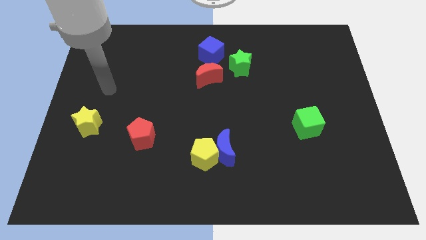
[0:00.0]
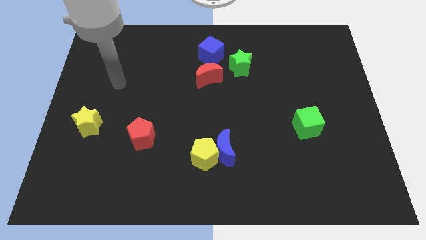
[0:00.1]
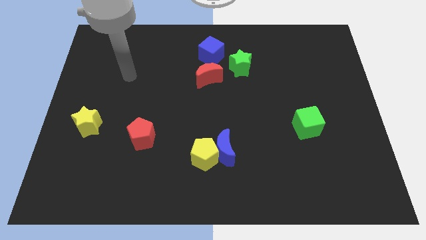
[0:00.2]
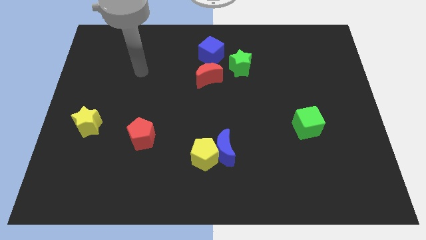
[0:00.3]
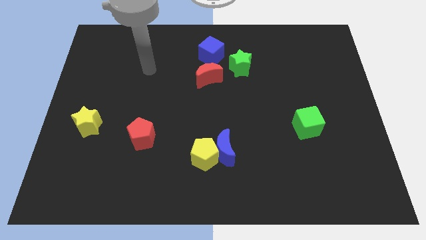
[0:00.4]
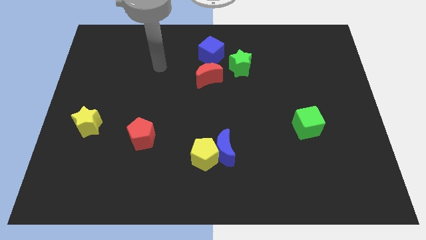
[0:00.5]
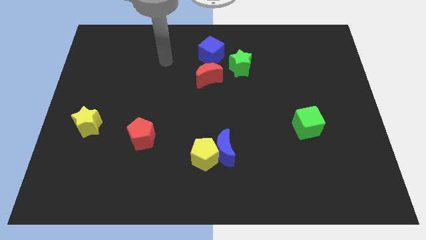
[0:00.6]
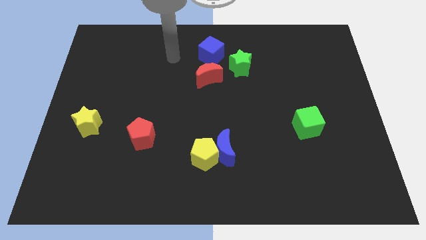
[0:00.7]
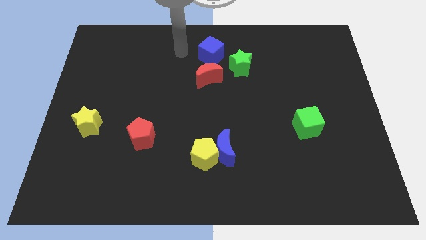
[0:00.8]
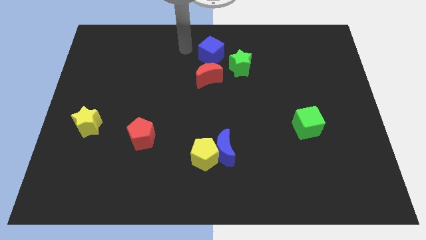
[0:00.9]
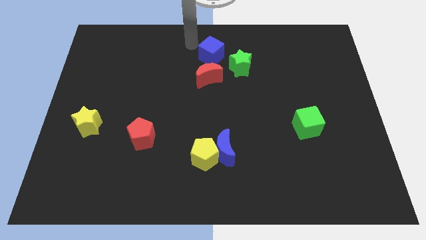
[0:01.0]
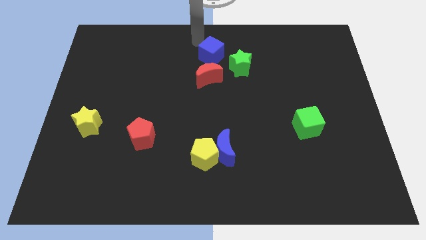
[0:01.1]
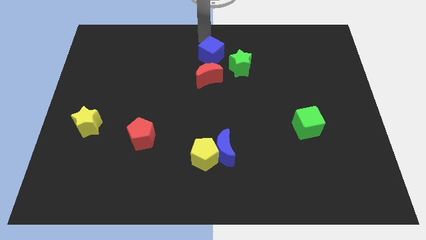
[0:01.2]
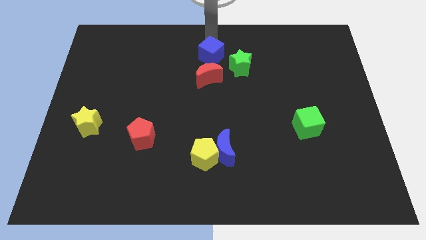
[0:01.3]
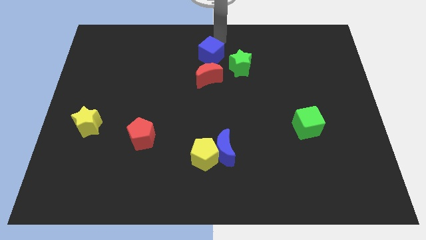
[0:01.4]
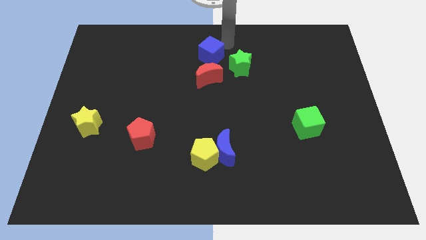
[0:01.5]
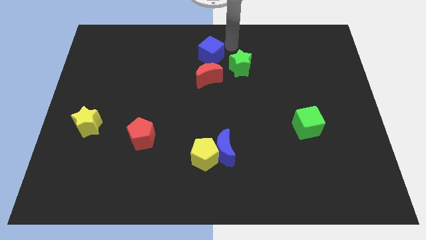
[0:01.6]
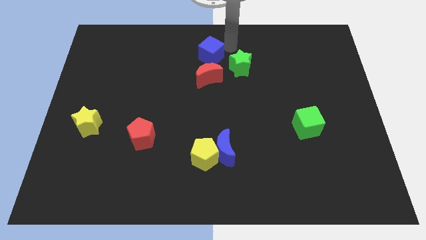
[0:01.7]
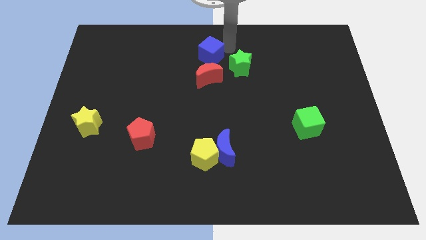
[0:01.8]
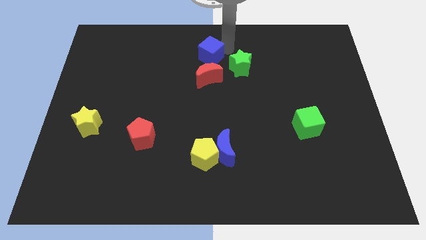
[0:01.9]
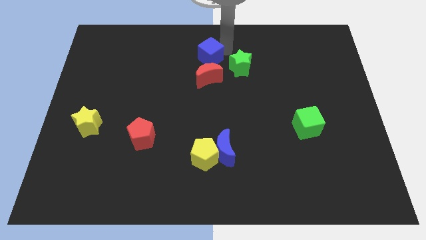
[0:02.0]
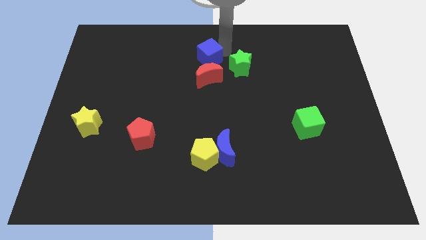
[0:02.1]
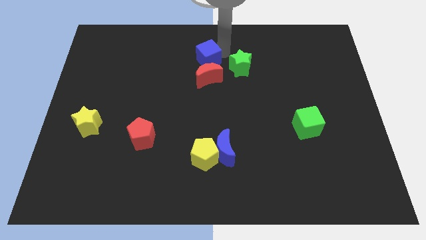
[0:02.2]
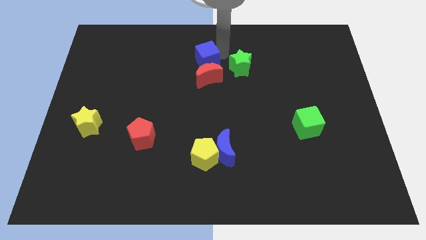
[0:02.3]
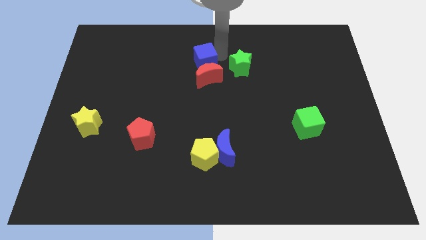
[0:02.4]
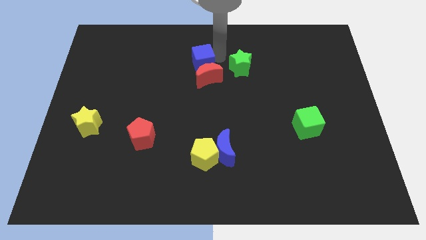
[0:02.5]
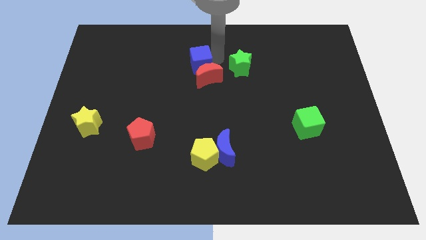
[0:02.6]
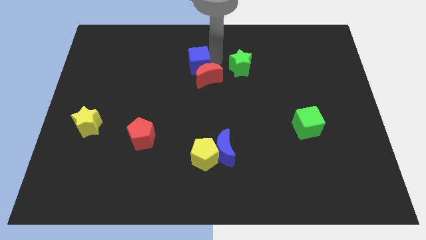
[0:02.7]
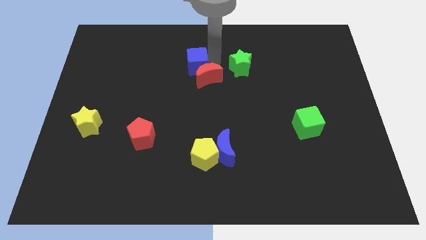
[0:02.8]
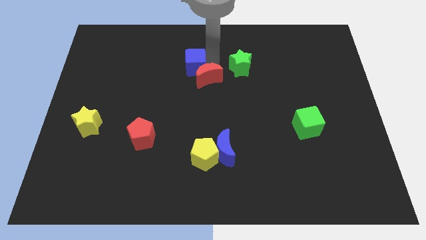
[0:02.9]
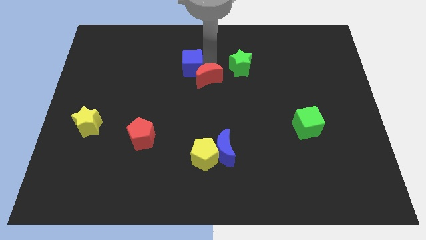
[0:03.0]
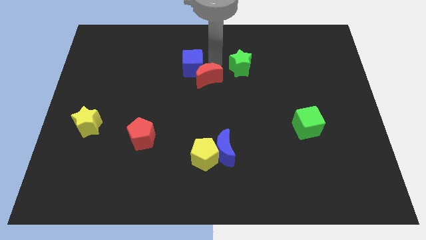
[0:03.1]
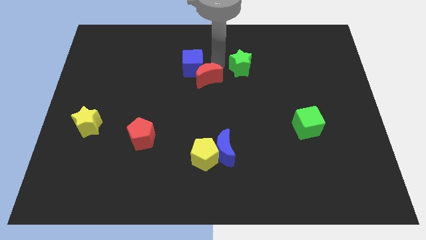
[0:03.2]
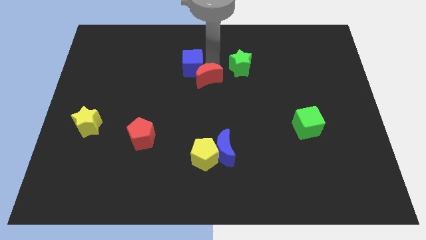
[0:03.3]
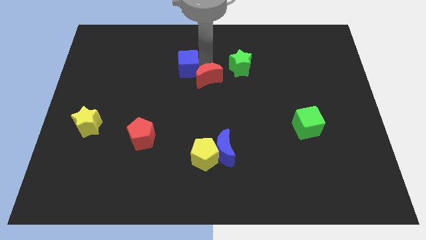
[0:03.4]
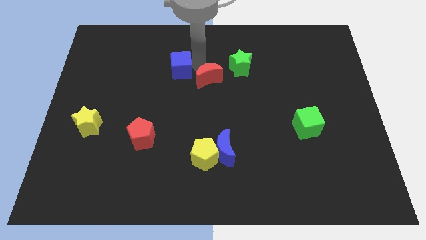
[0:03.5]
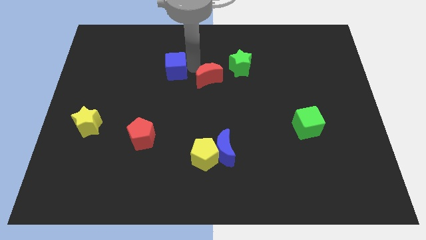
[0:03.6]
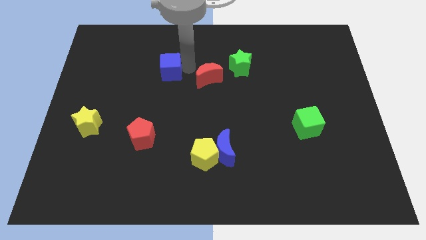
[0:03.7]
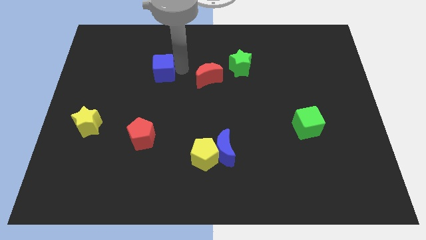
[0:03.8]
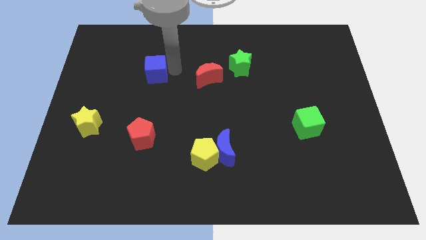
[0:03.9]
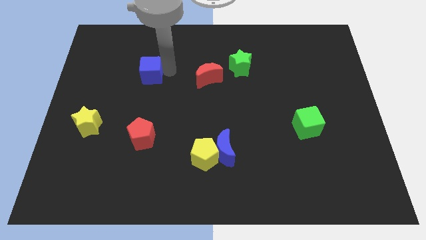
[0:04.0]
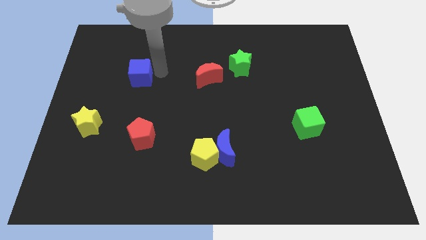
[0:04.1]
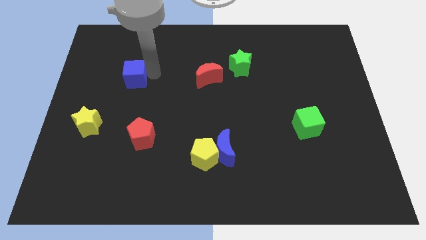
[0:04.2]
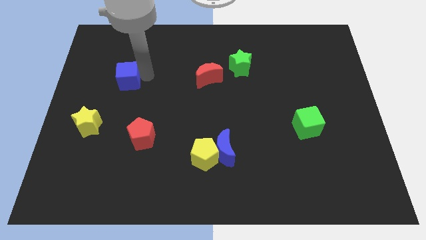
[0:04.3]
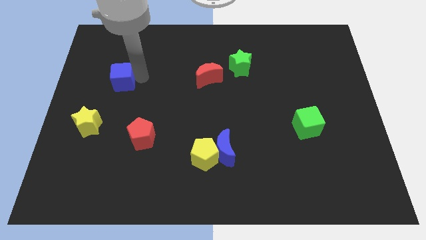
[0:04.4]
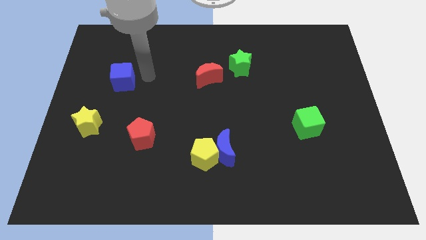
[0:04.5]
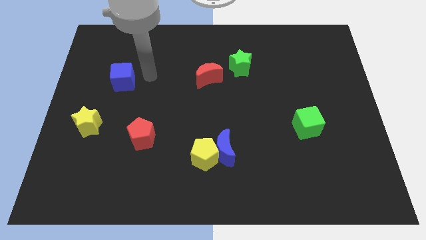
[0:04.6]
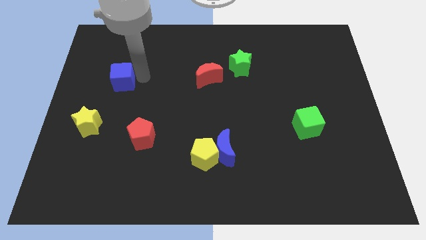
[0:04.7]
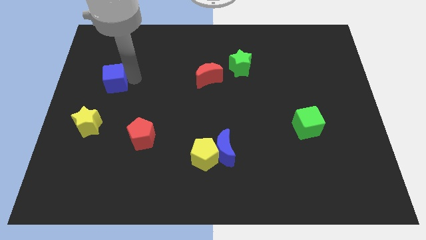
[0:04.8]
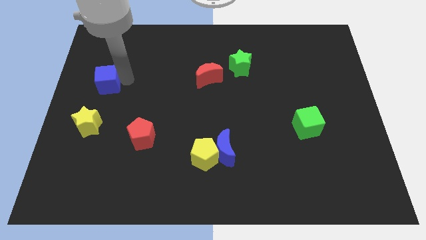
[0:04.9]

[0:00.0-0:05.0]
put the blue cube to the left side of the board

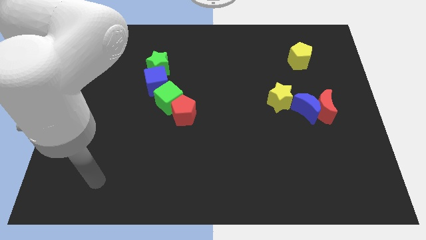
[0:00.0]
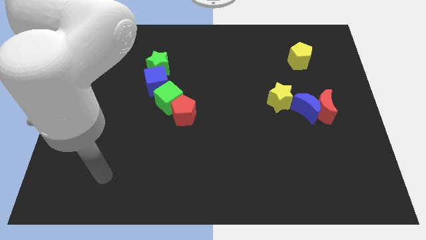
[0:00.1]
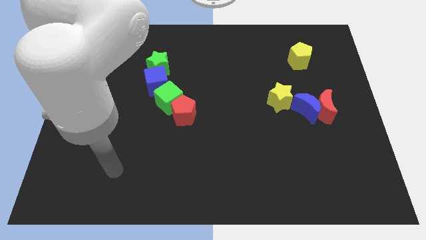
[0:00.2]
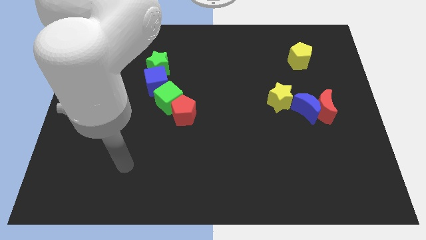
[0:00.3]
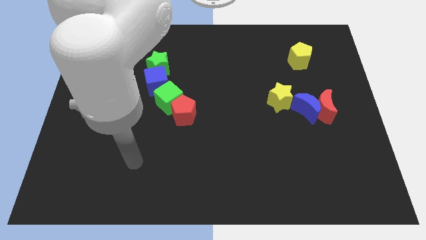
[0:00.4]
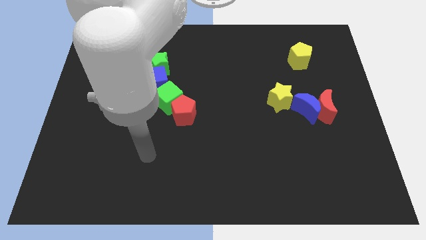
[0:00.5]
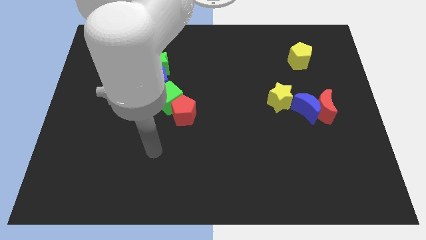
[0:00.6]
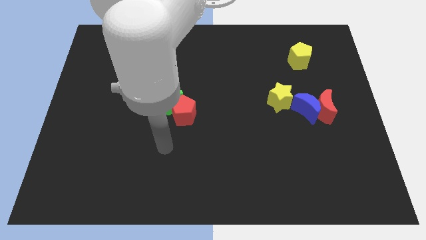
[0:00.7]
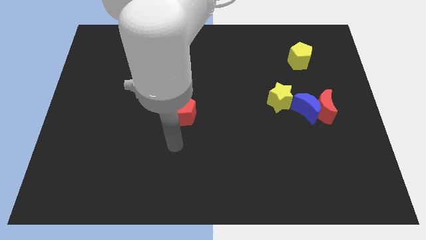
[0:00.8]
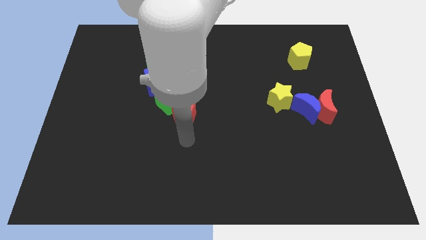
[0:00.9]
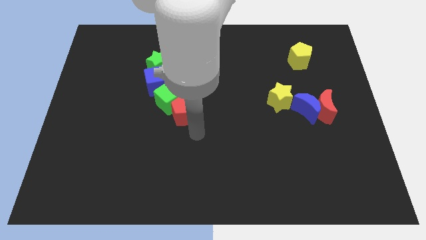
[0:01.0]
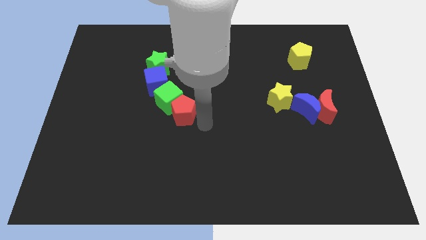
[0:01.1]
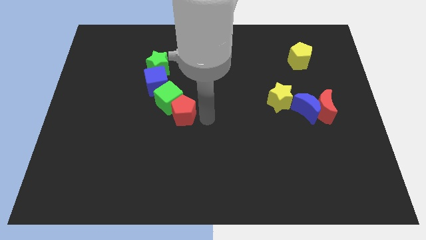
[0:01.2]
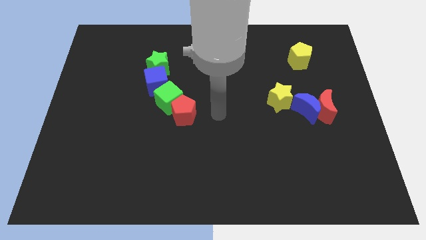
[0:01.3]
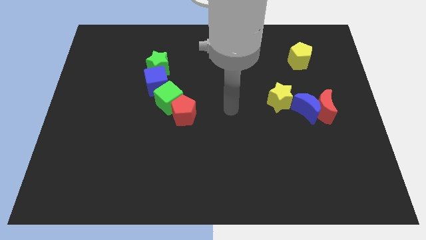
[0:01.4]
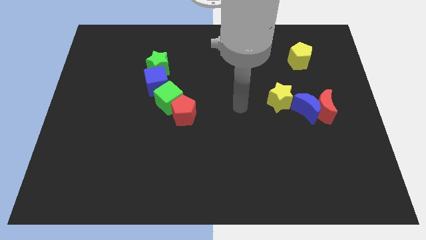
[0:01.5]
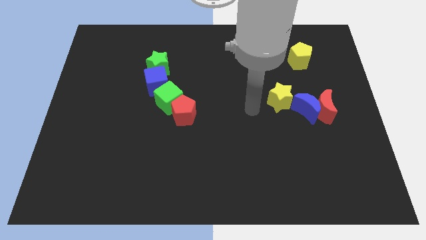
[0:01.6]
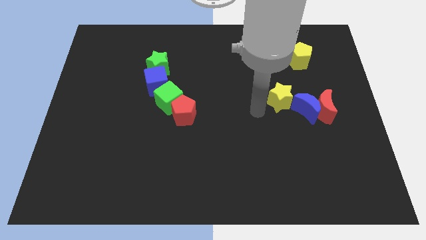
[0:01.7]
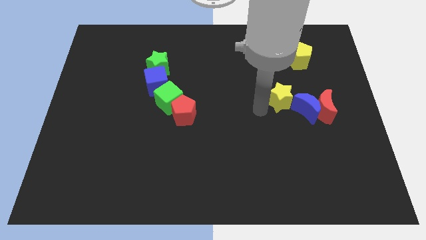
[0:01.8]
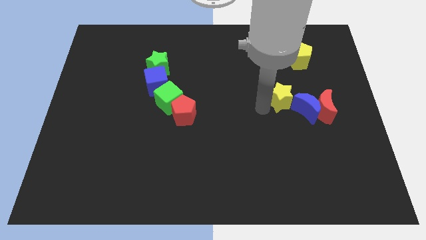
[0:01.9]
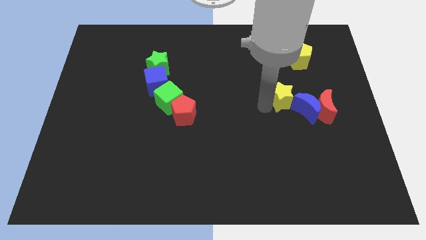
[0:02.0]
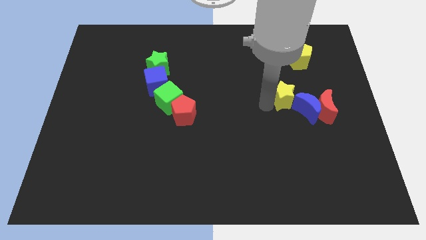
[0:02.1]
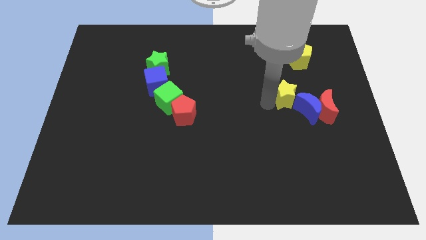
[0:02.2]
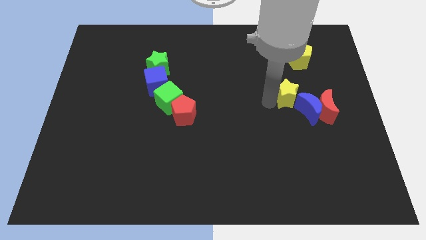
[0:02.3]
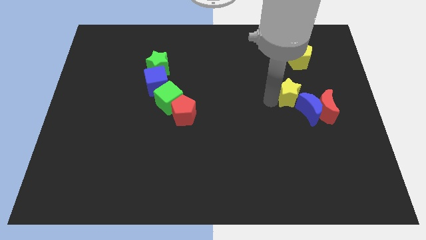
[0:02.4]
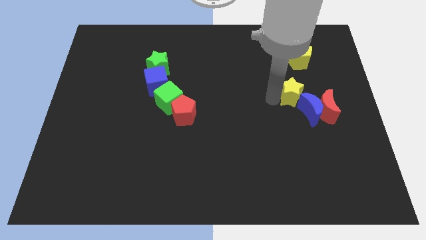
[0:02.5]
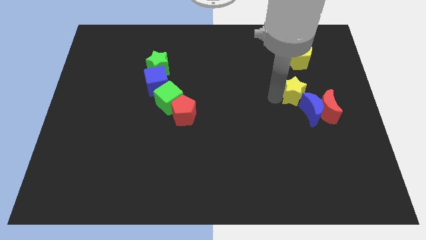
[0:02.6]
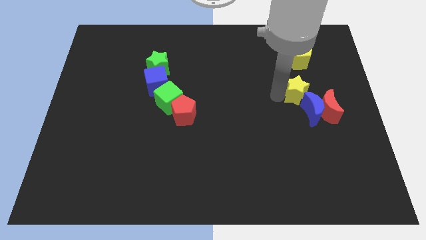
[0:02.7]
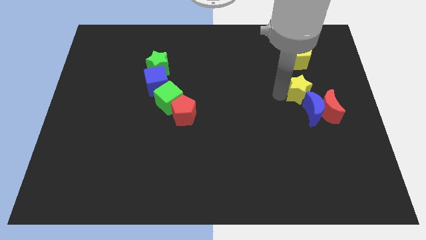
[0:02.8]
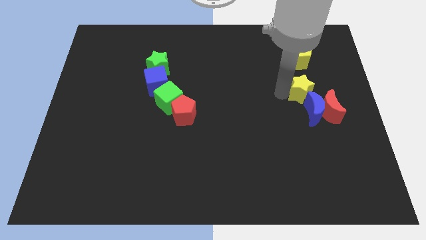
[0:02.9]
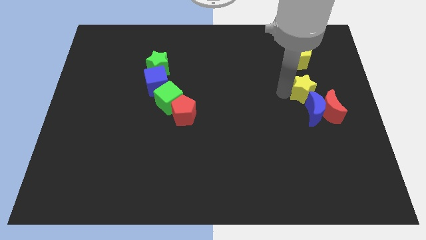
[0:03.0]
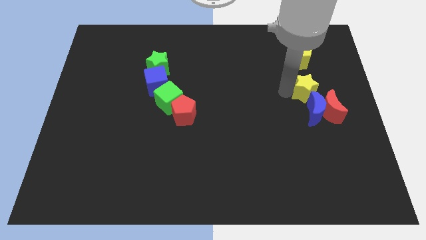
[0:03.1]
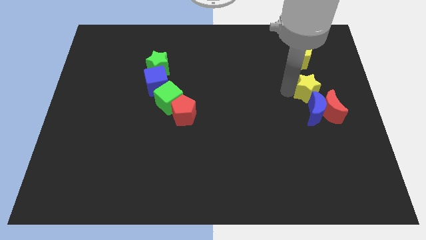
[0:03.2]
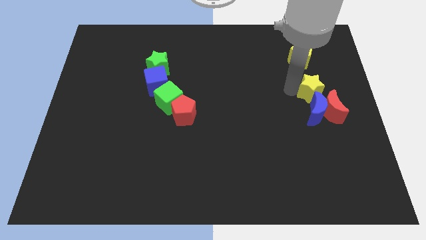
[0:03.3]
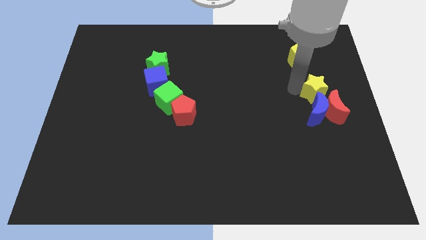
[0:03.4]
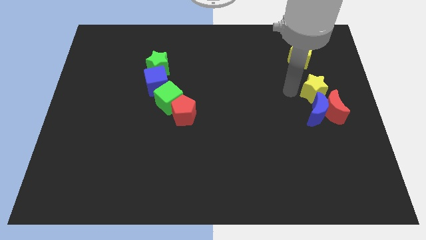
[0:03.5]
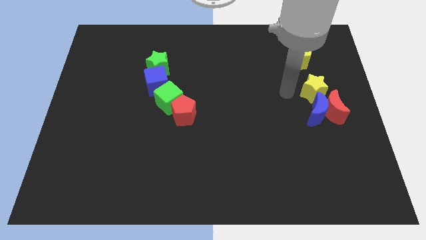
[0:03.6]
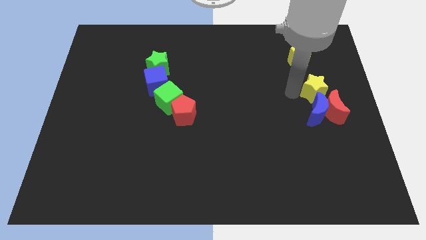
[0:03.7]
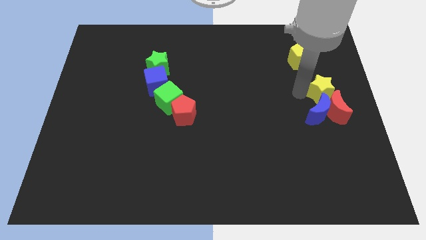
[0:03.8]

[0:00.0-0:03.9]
move the yellow star to the right side of the board
